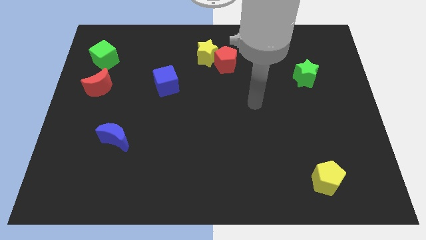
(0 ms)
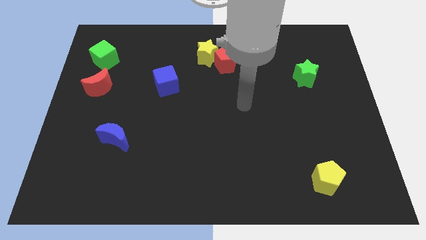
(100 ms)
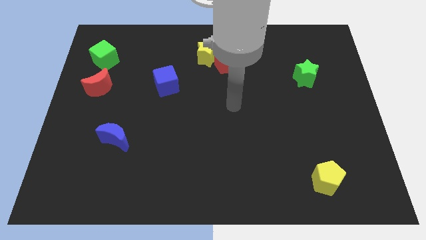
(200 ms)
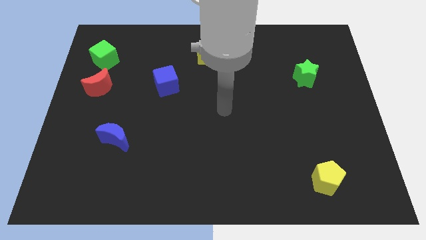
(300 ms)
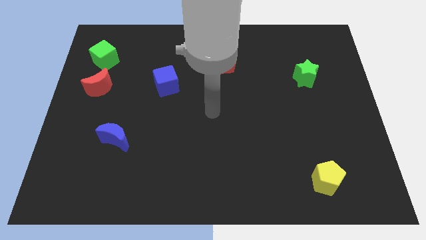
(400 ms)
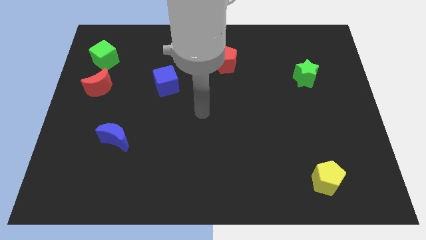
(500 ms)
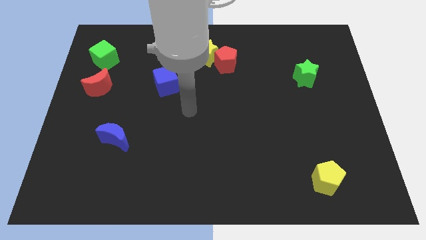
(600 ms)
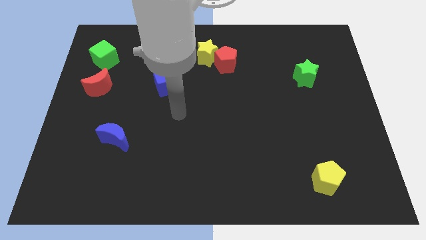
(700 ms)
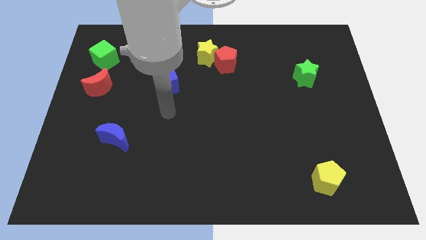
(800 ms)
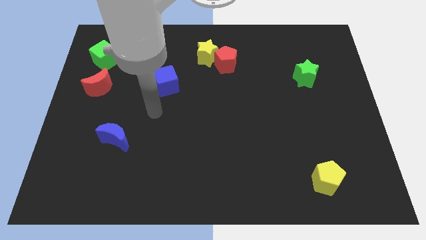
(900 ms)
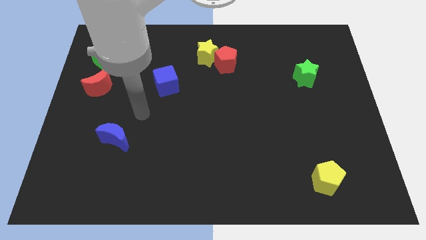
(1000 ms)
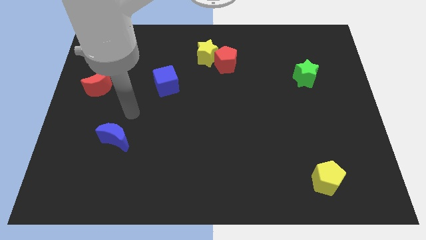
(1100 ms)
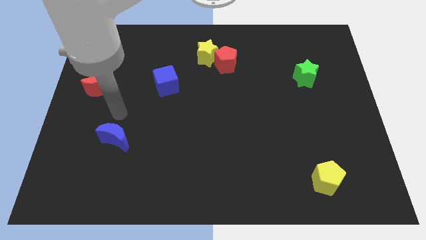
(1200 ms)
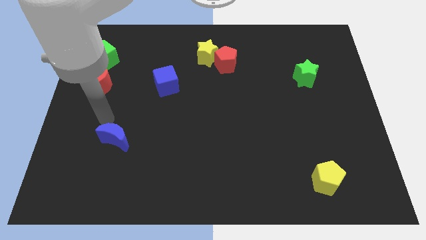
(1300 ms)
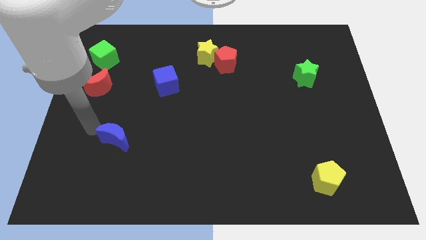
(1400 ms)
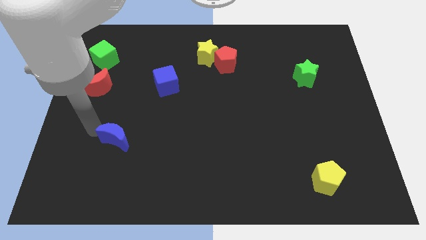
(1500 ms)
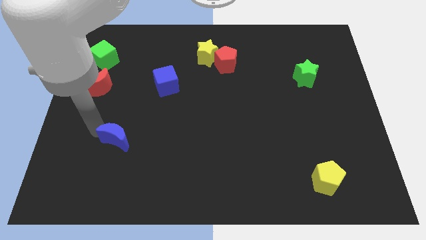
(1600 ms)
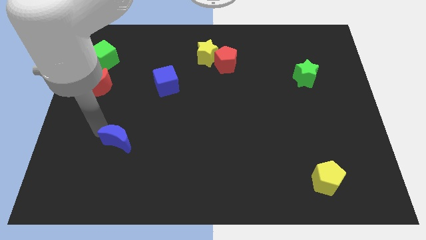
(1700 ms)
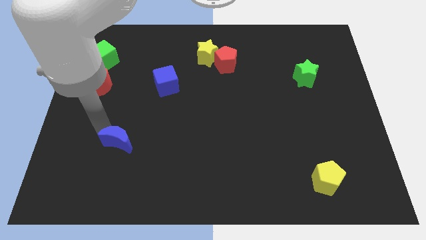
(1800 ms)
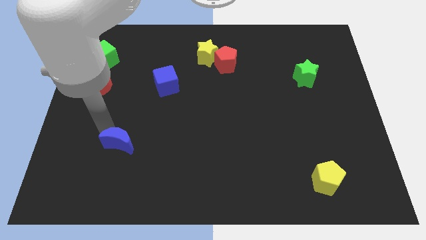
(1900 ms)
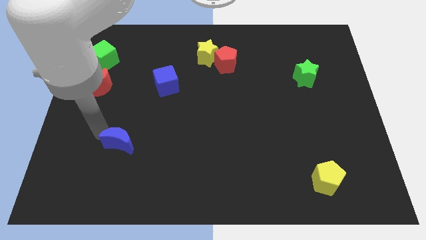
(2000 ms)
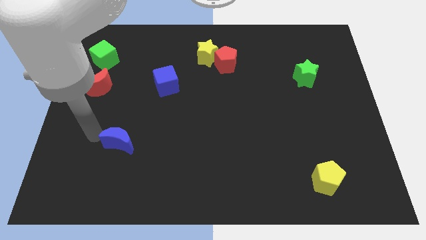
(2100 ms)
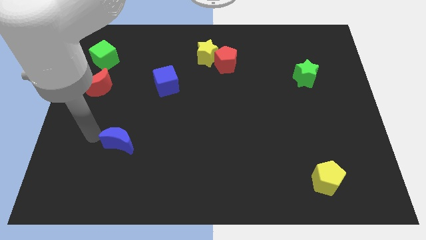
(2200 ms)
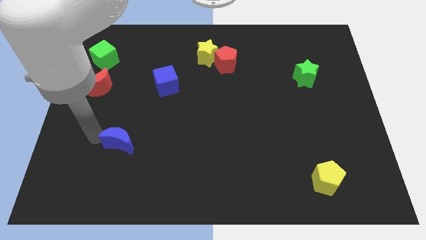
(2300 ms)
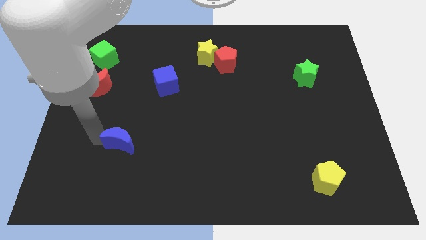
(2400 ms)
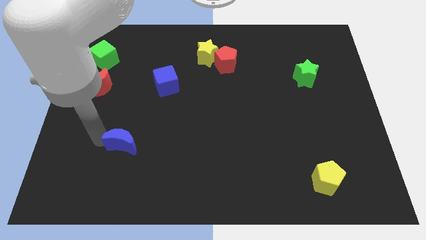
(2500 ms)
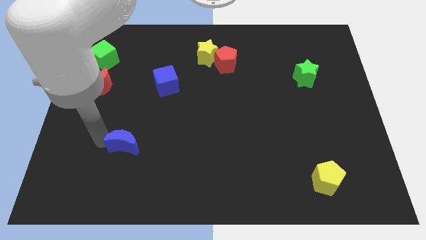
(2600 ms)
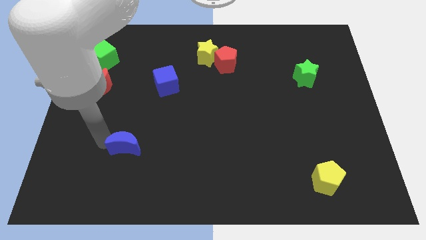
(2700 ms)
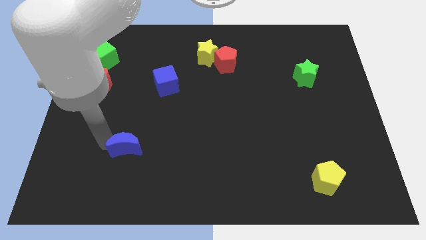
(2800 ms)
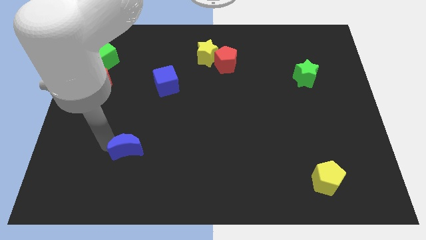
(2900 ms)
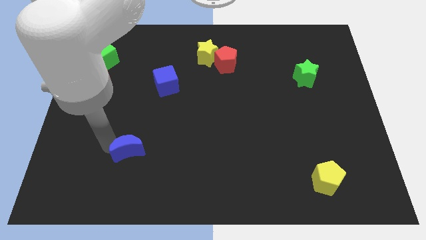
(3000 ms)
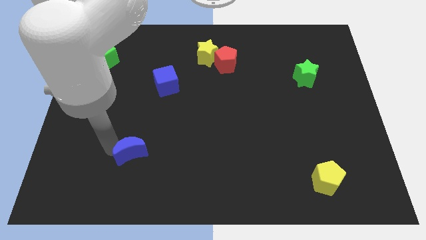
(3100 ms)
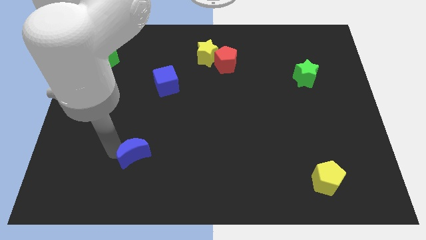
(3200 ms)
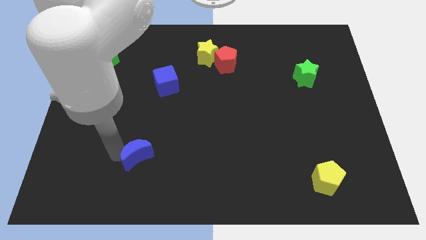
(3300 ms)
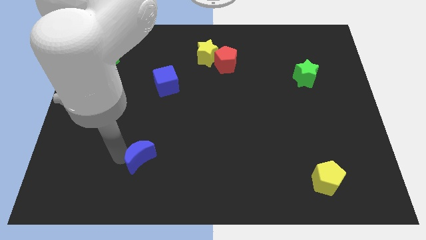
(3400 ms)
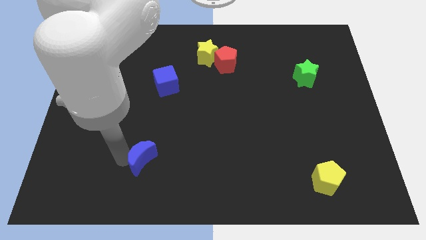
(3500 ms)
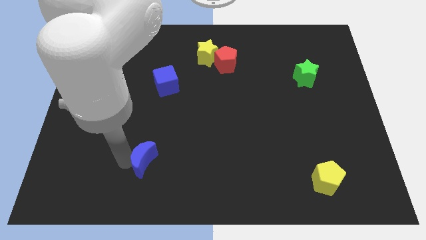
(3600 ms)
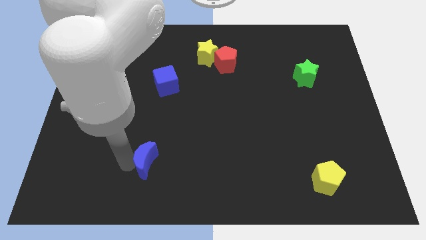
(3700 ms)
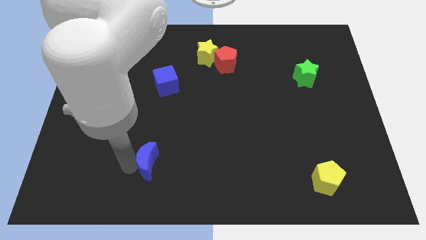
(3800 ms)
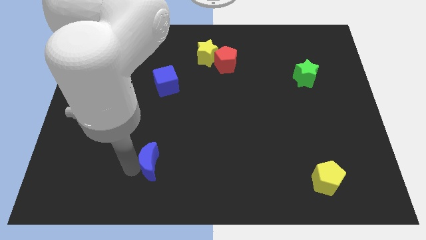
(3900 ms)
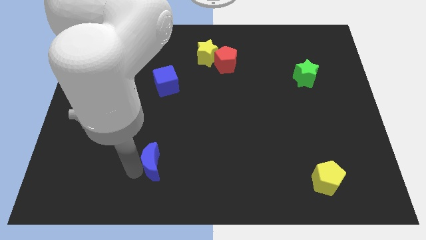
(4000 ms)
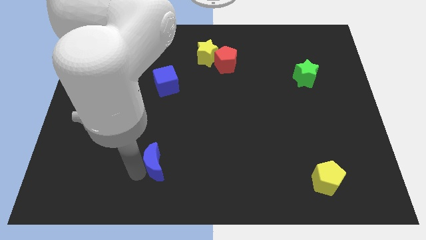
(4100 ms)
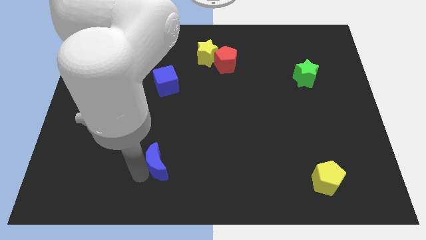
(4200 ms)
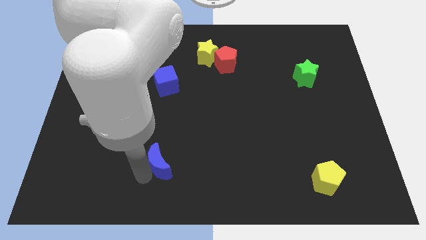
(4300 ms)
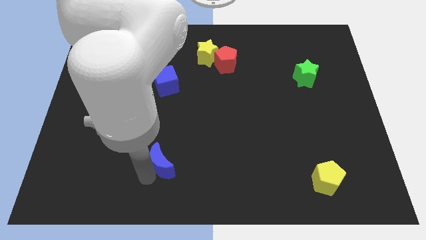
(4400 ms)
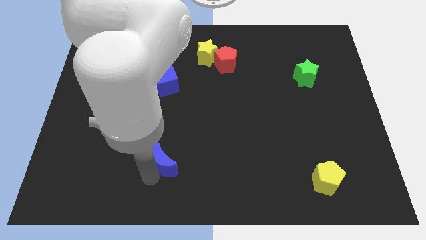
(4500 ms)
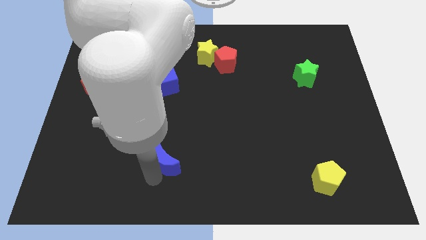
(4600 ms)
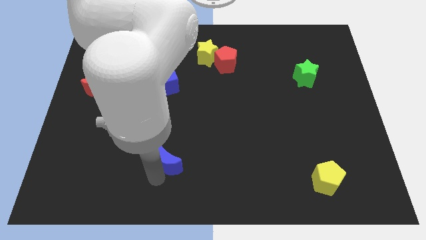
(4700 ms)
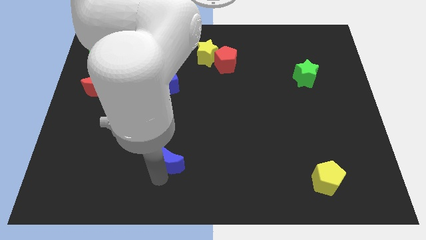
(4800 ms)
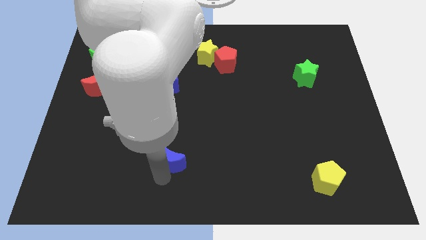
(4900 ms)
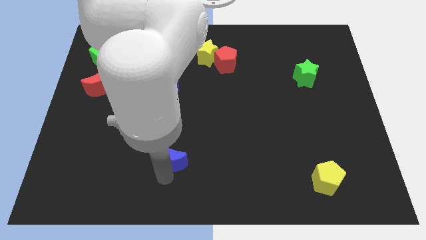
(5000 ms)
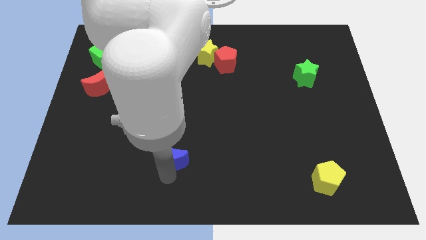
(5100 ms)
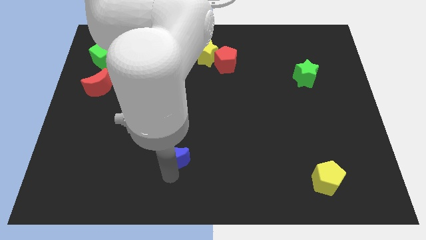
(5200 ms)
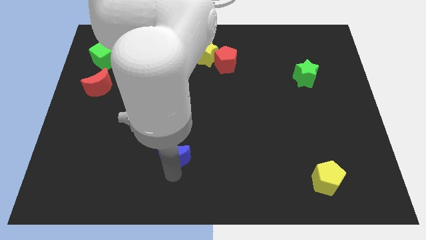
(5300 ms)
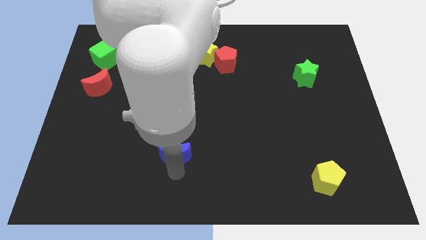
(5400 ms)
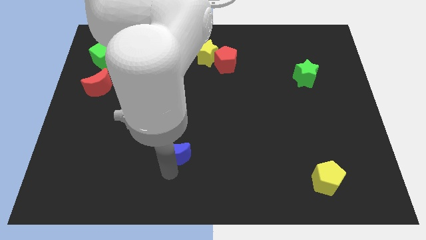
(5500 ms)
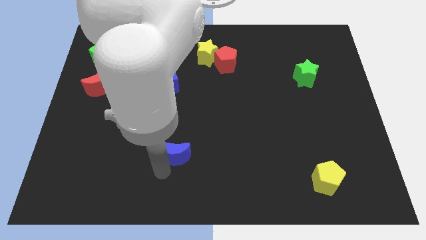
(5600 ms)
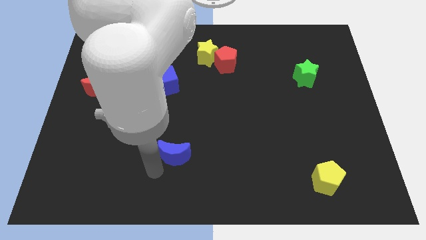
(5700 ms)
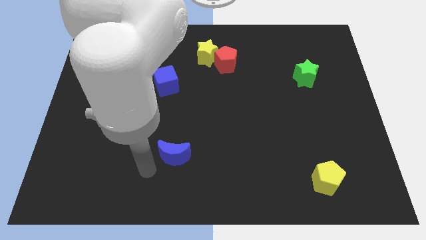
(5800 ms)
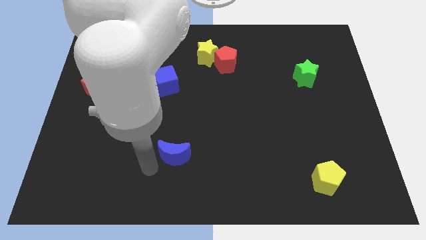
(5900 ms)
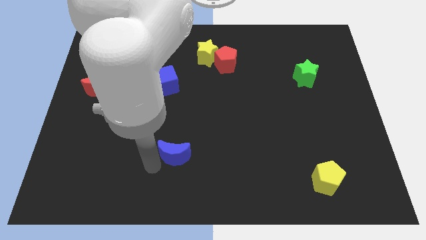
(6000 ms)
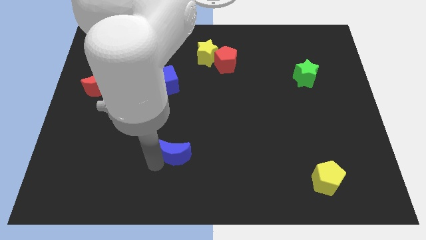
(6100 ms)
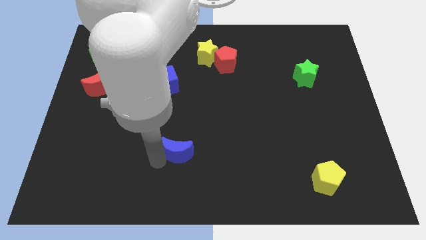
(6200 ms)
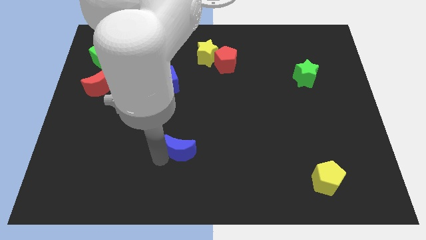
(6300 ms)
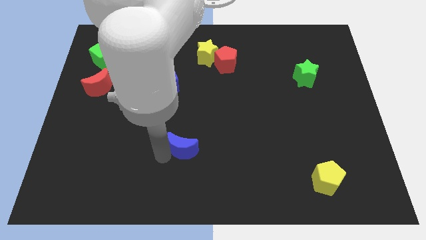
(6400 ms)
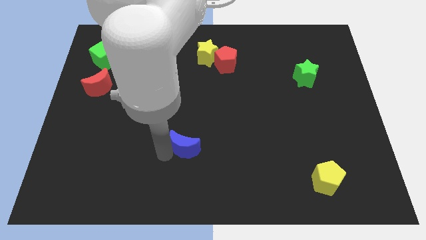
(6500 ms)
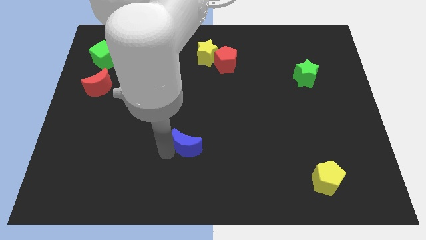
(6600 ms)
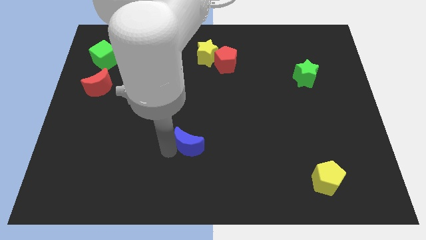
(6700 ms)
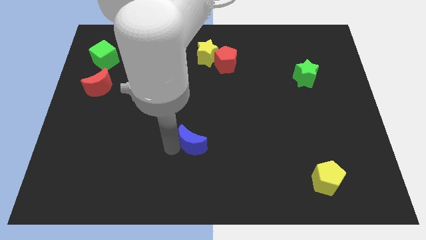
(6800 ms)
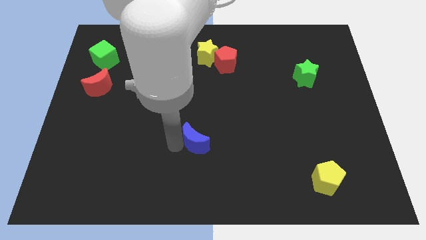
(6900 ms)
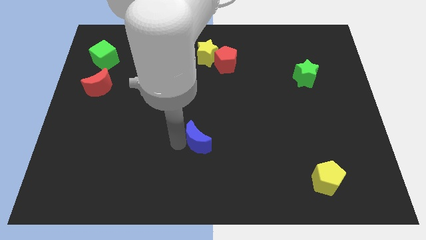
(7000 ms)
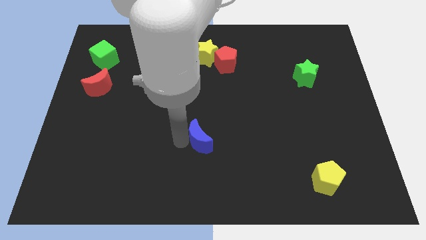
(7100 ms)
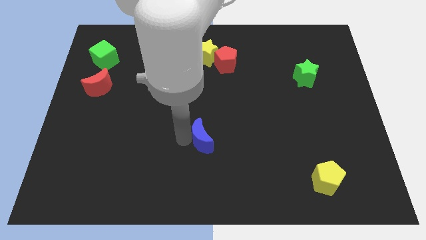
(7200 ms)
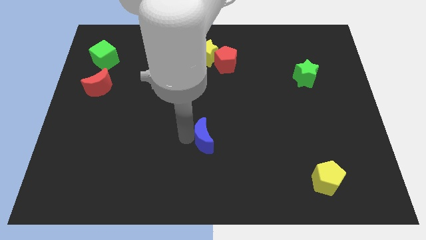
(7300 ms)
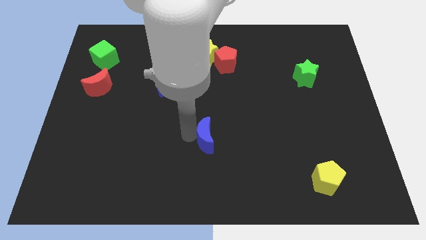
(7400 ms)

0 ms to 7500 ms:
slide the blue moon to the right

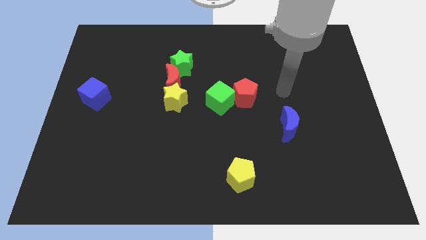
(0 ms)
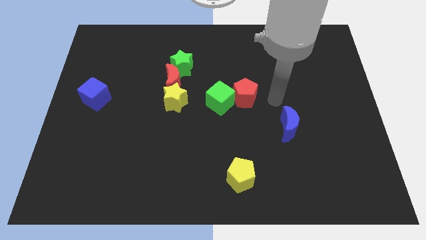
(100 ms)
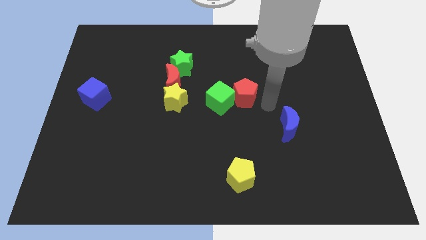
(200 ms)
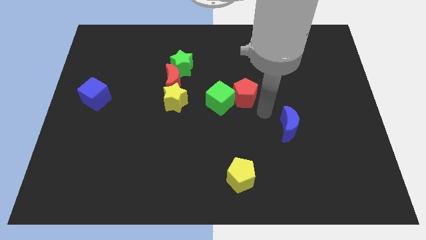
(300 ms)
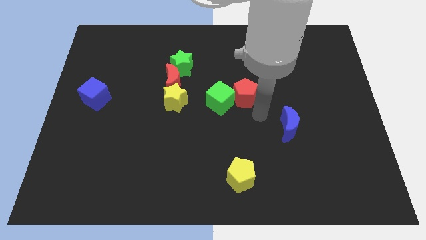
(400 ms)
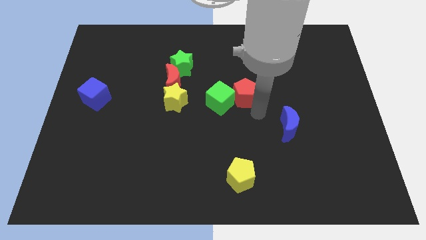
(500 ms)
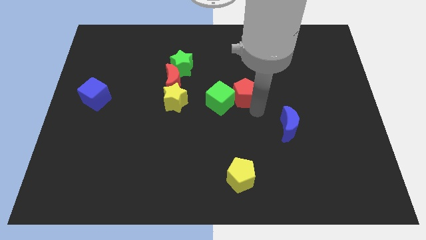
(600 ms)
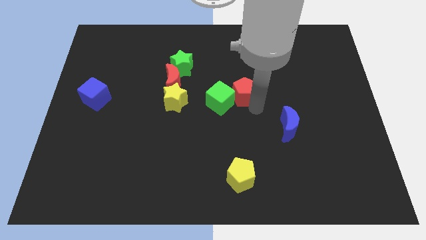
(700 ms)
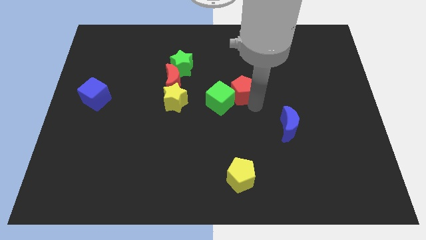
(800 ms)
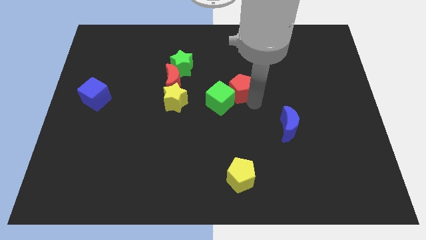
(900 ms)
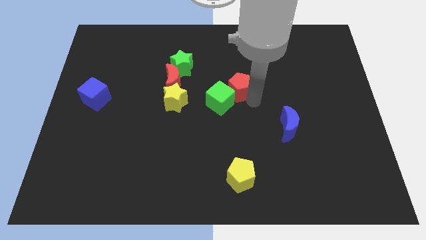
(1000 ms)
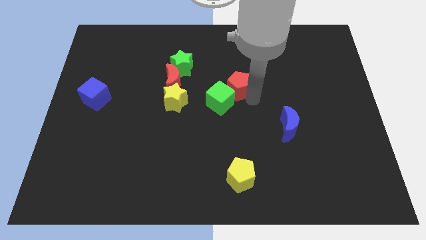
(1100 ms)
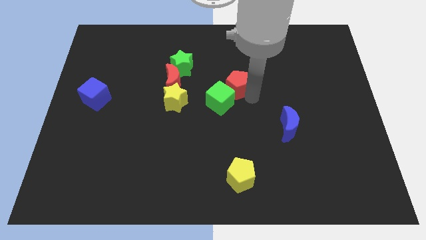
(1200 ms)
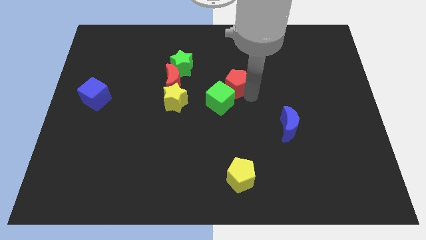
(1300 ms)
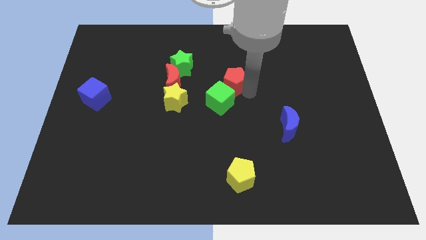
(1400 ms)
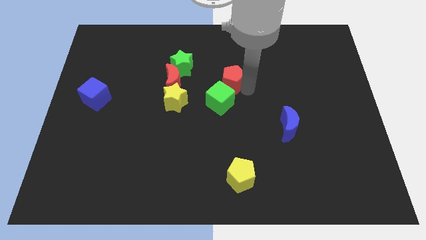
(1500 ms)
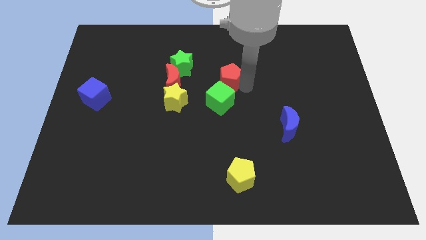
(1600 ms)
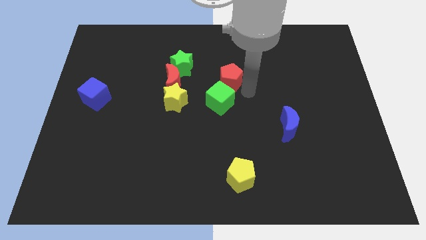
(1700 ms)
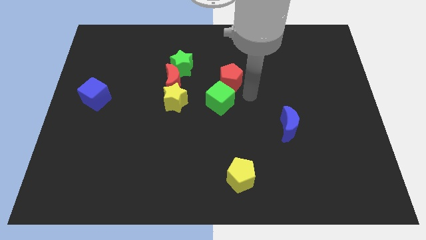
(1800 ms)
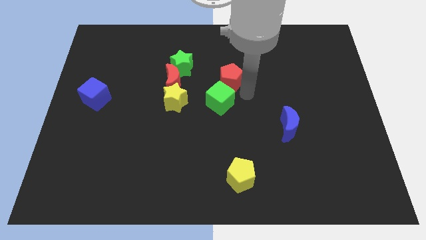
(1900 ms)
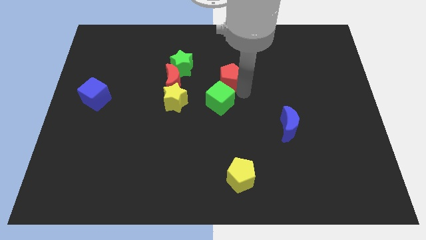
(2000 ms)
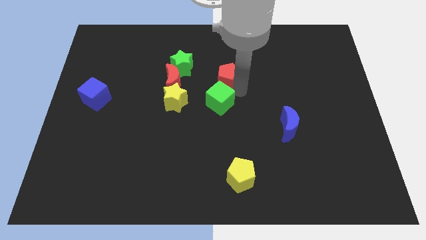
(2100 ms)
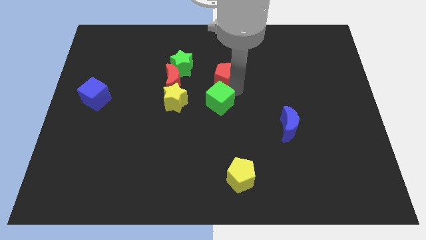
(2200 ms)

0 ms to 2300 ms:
slide the red pentagon a little diagonally upwards and left
